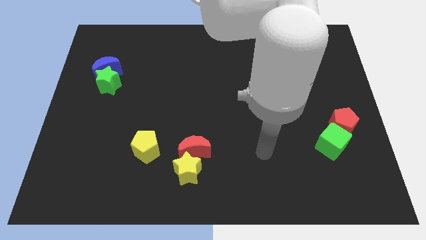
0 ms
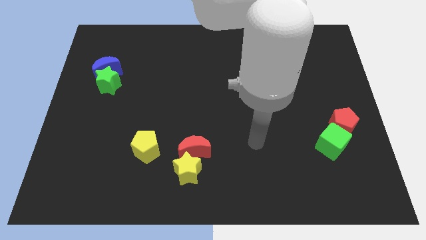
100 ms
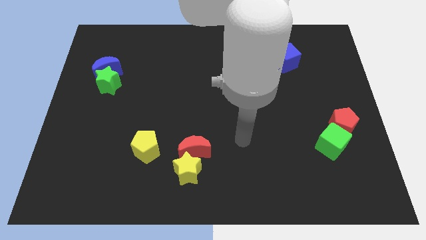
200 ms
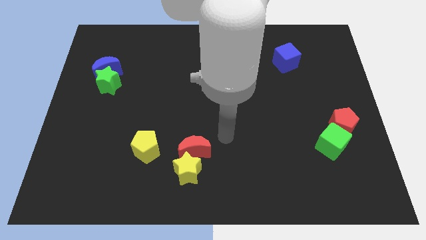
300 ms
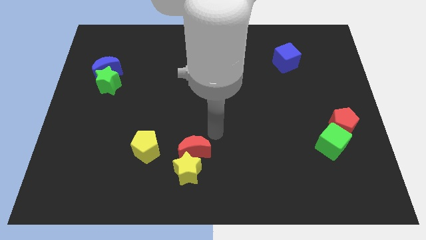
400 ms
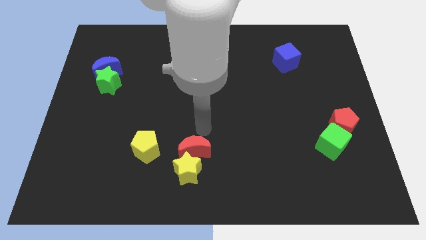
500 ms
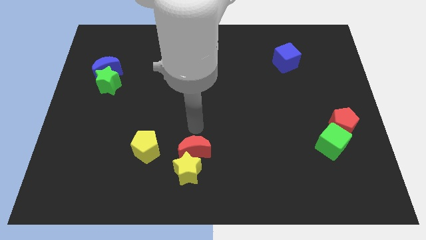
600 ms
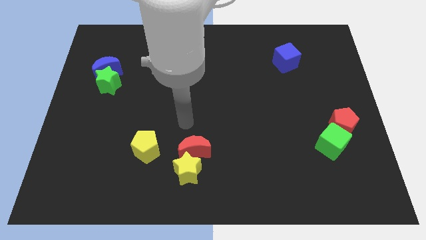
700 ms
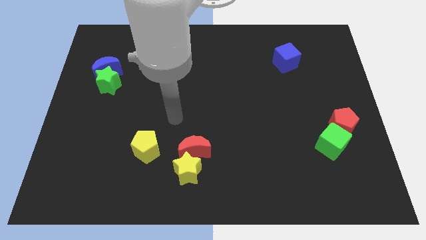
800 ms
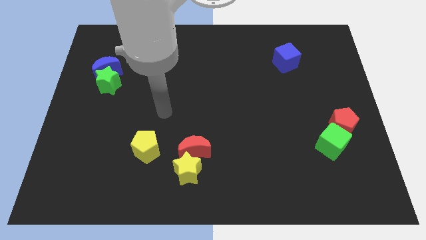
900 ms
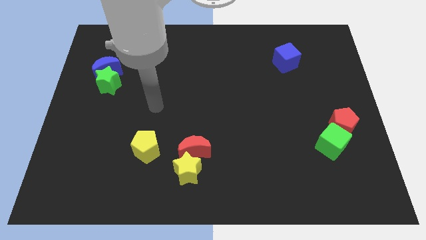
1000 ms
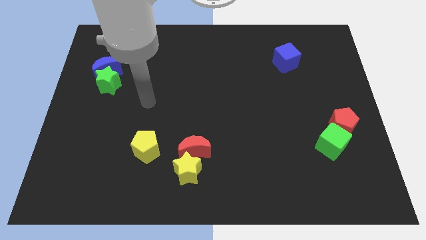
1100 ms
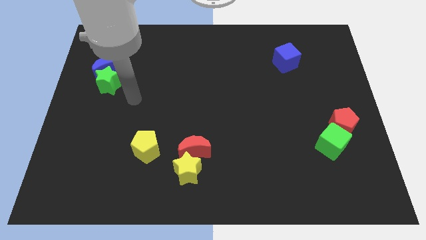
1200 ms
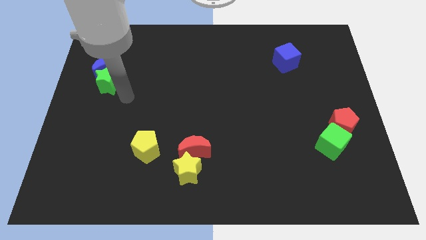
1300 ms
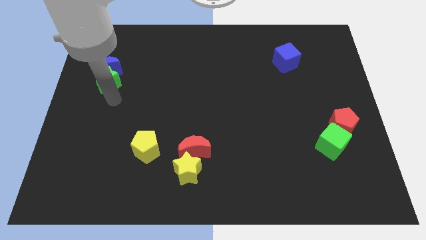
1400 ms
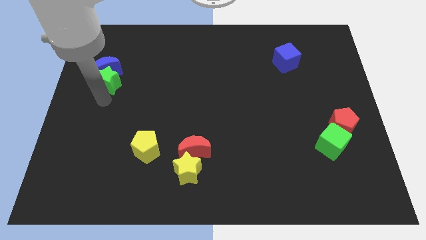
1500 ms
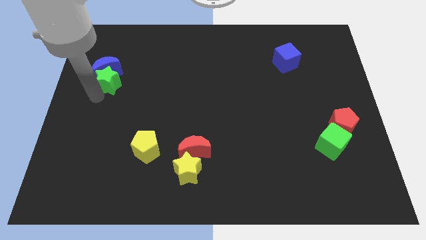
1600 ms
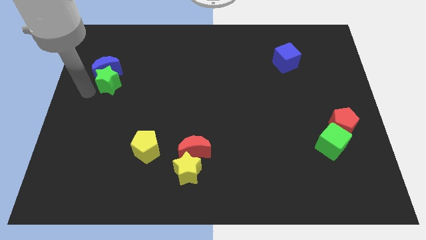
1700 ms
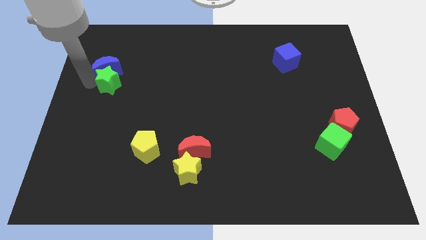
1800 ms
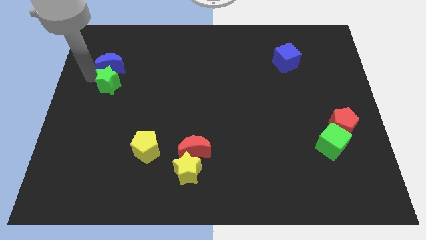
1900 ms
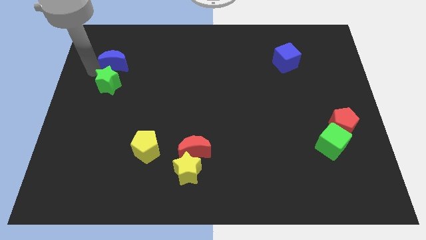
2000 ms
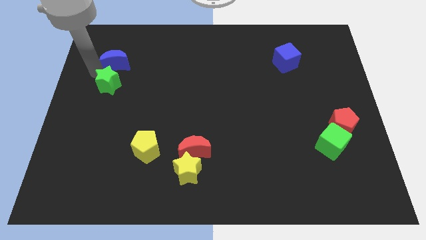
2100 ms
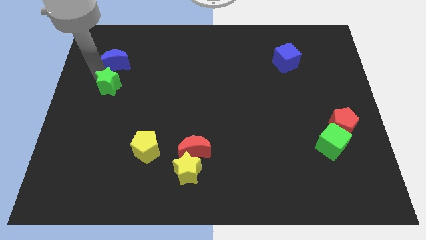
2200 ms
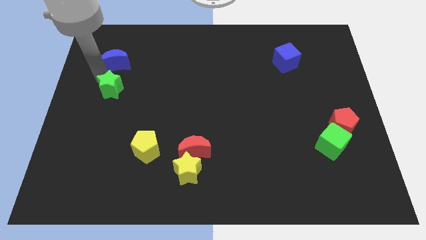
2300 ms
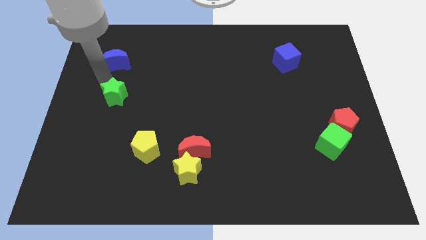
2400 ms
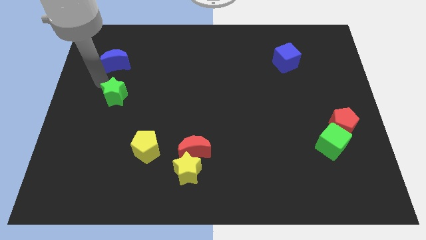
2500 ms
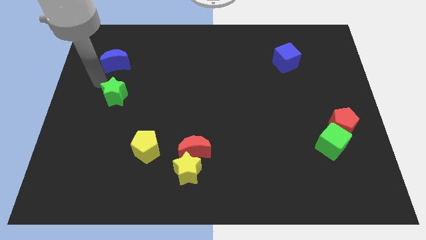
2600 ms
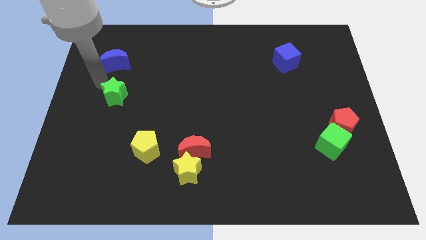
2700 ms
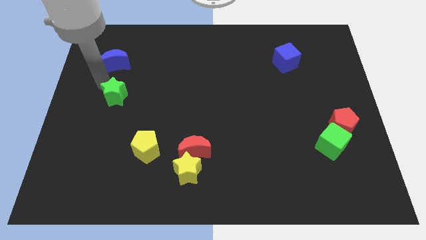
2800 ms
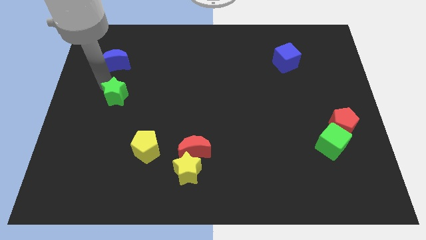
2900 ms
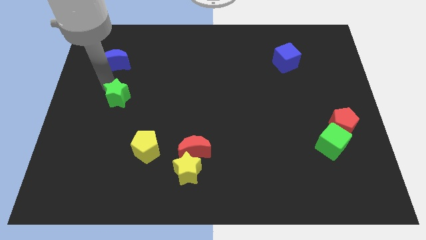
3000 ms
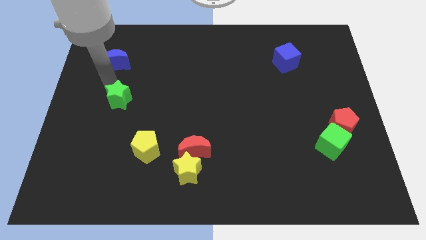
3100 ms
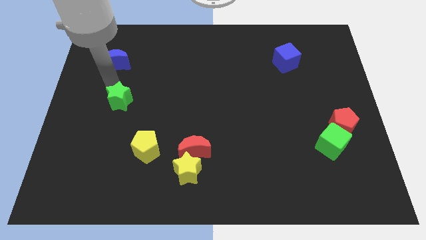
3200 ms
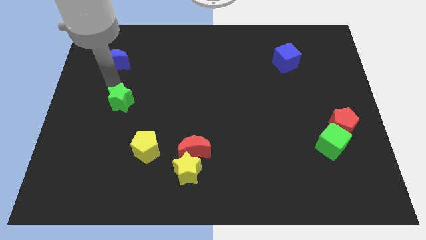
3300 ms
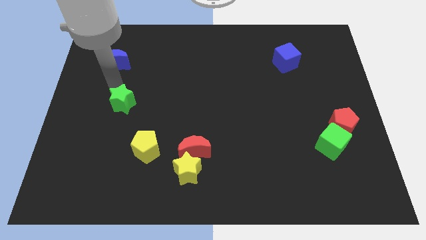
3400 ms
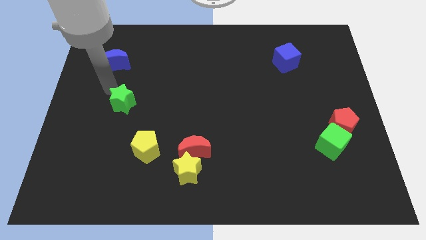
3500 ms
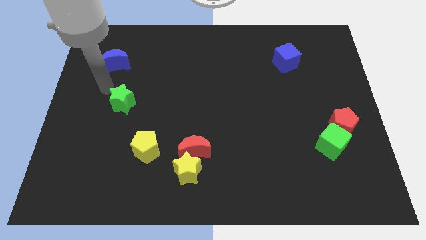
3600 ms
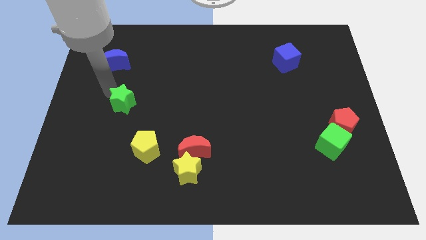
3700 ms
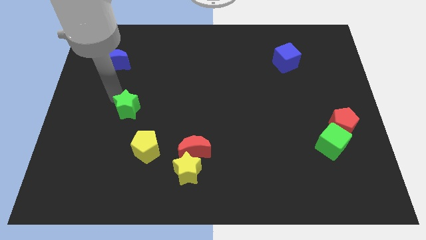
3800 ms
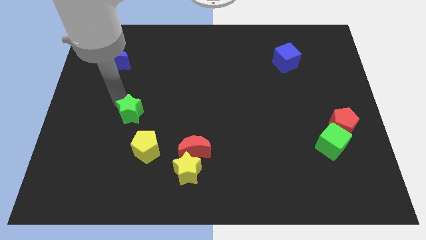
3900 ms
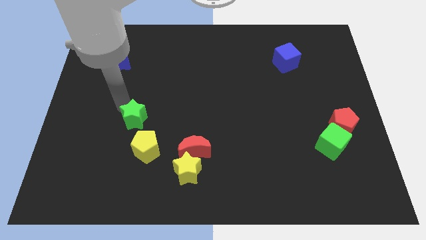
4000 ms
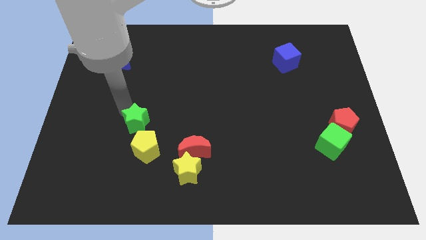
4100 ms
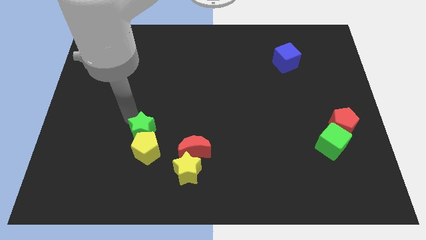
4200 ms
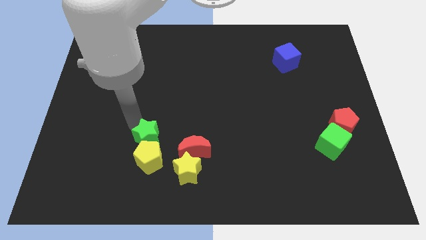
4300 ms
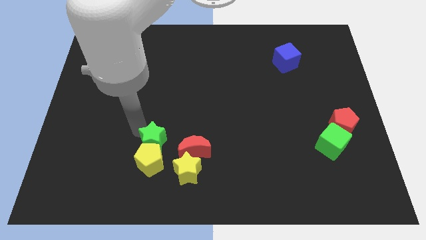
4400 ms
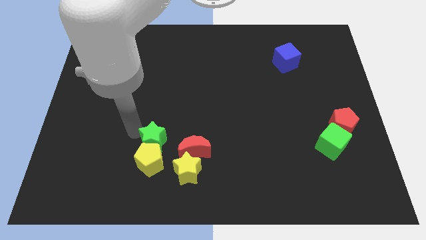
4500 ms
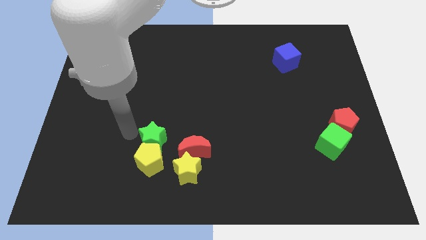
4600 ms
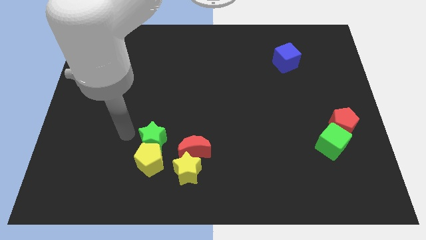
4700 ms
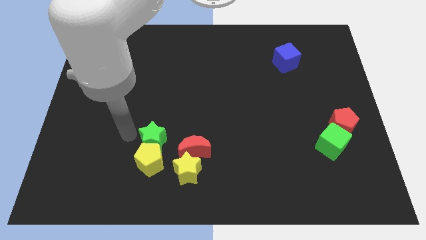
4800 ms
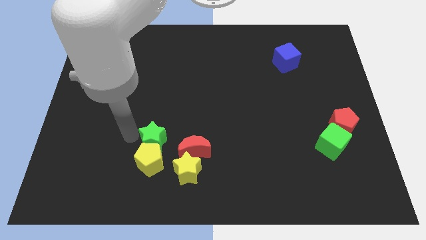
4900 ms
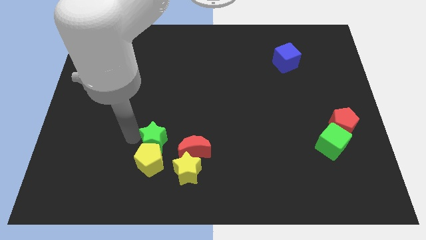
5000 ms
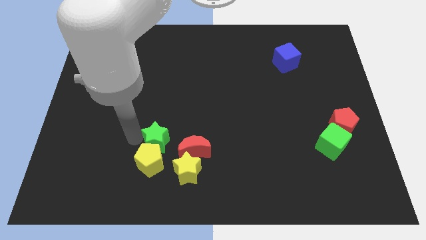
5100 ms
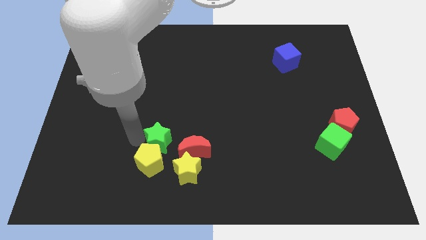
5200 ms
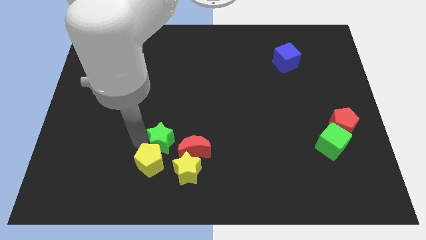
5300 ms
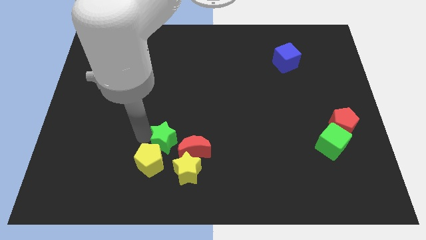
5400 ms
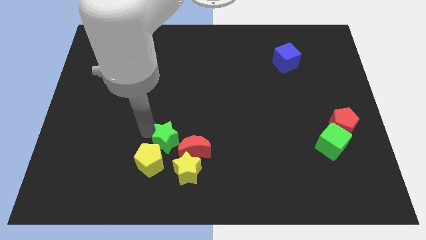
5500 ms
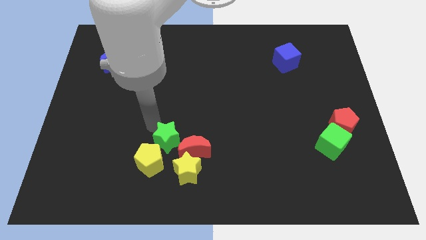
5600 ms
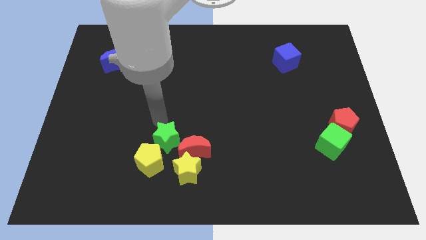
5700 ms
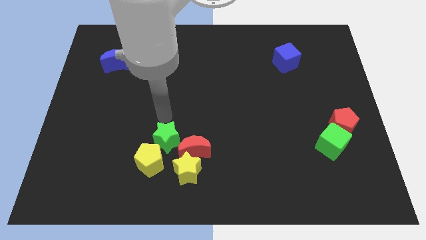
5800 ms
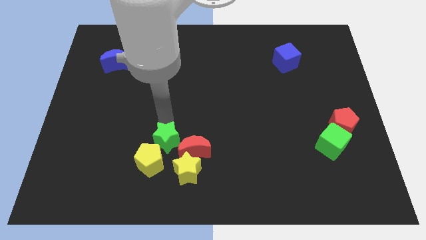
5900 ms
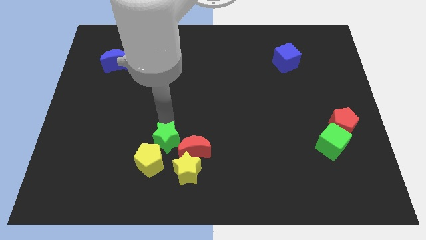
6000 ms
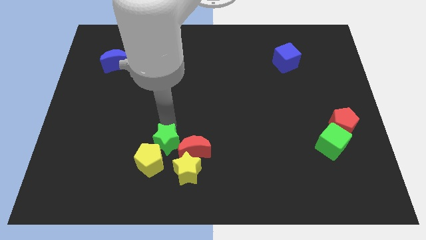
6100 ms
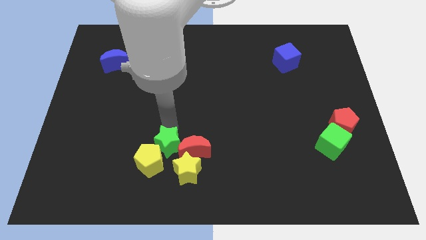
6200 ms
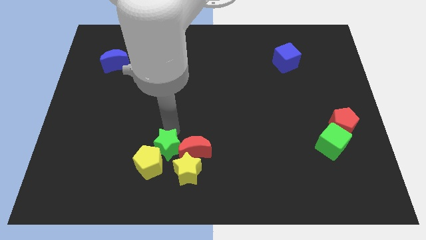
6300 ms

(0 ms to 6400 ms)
slide the green star to the bottom left side of the red moon
